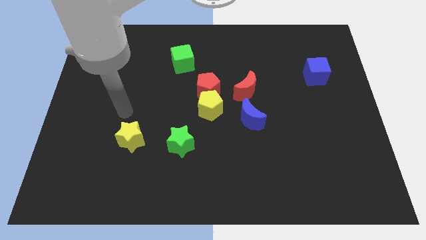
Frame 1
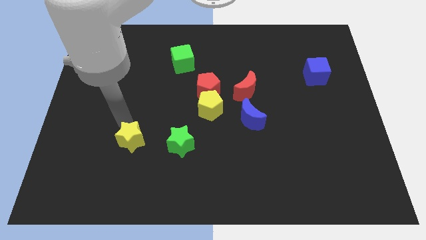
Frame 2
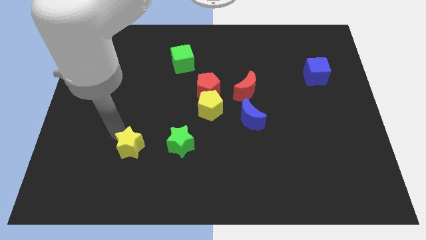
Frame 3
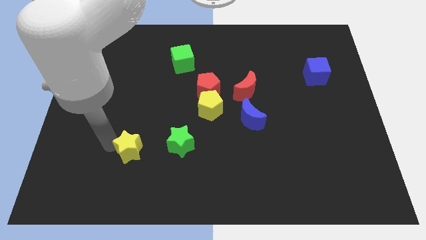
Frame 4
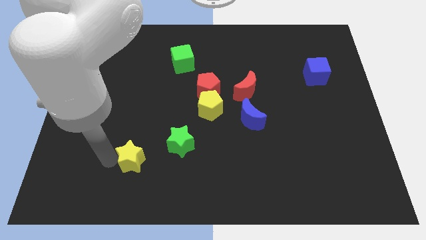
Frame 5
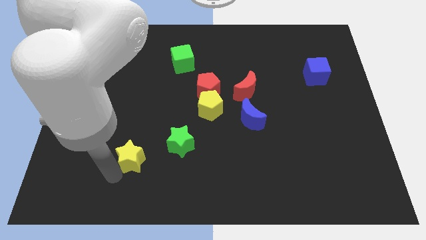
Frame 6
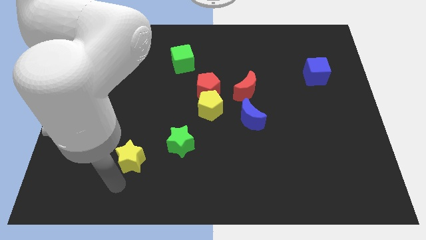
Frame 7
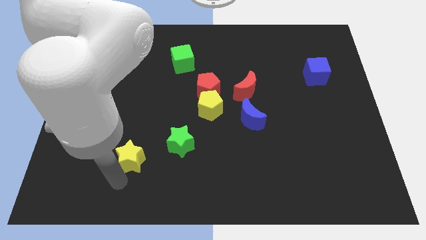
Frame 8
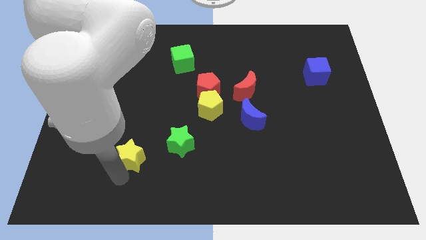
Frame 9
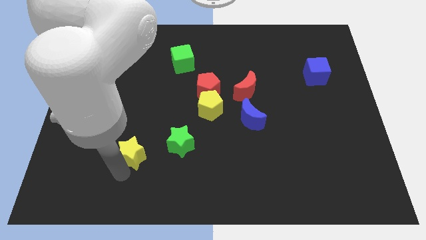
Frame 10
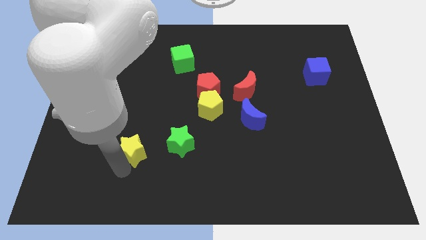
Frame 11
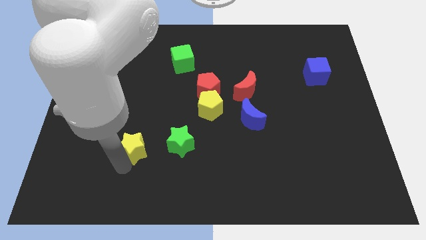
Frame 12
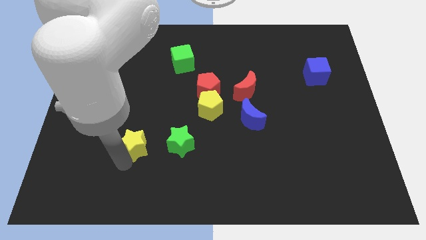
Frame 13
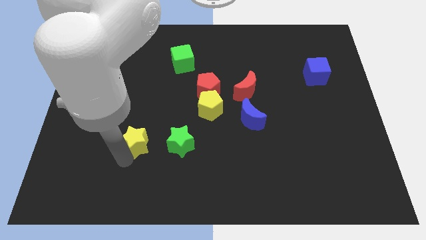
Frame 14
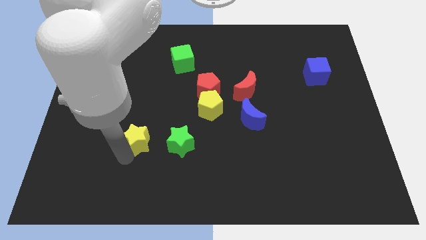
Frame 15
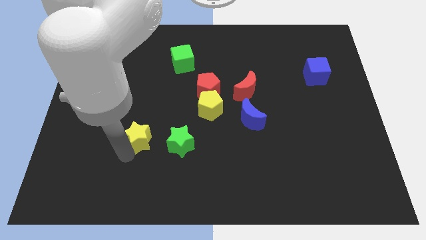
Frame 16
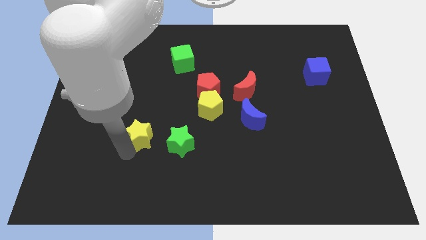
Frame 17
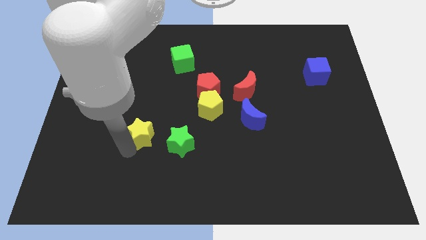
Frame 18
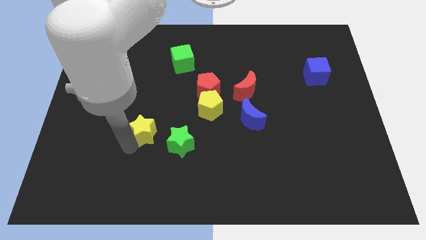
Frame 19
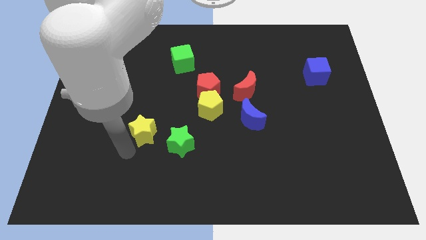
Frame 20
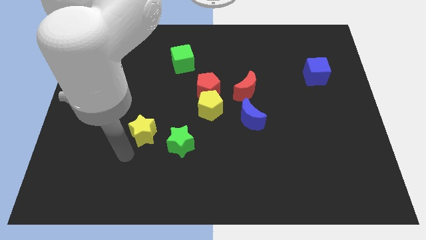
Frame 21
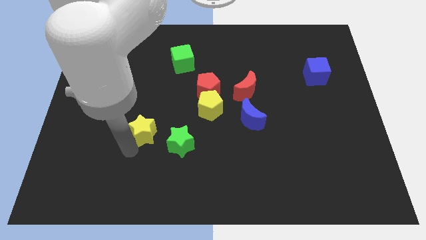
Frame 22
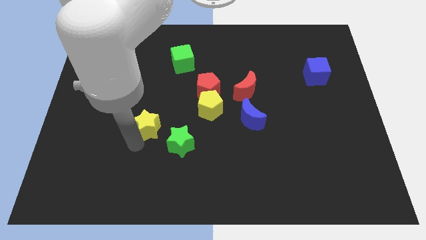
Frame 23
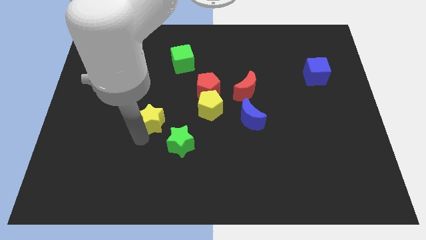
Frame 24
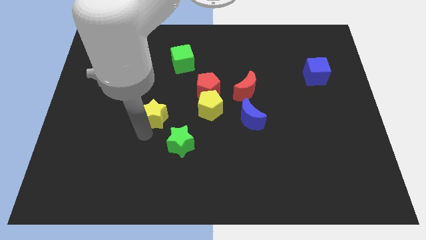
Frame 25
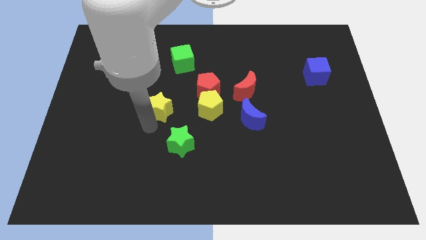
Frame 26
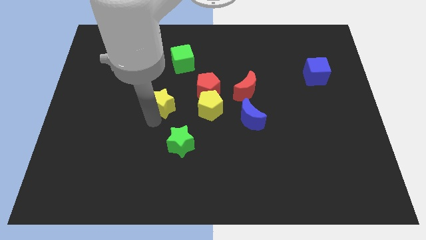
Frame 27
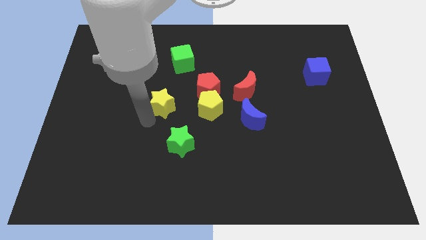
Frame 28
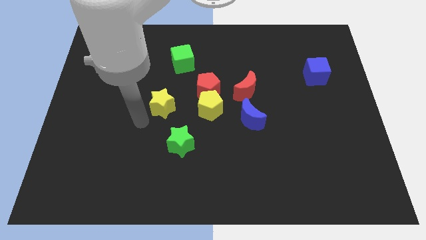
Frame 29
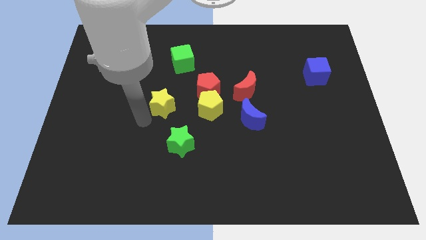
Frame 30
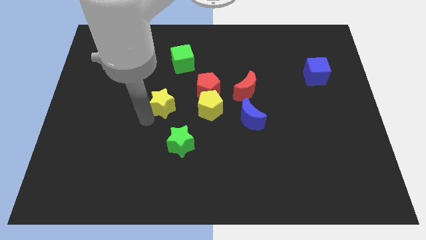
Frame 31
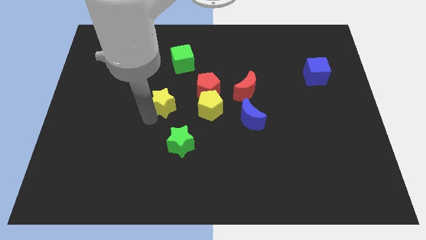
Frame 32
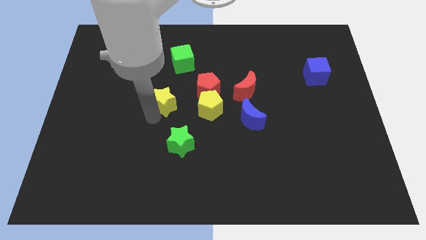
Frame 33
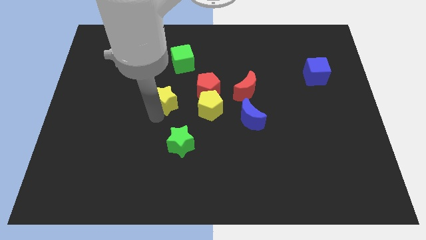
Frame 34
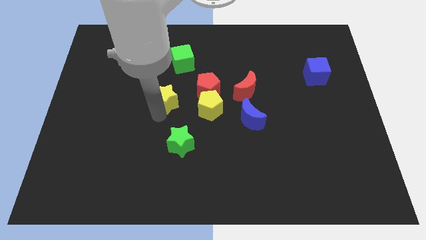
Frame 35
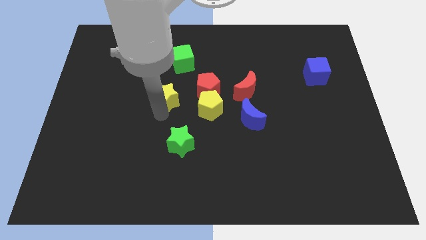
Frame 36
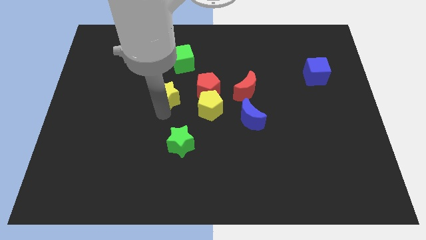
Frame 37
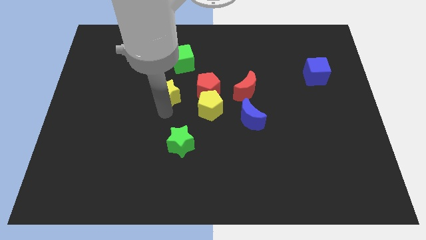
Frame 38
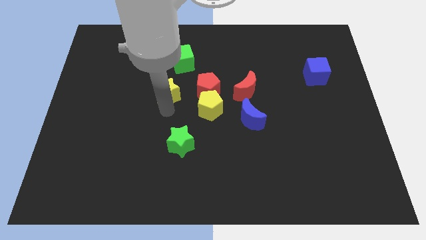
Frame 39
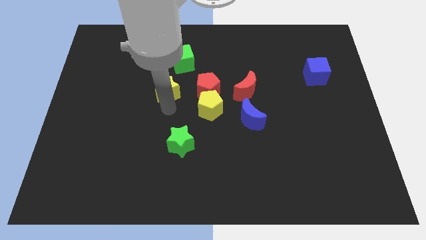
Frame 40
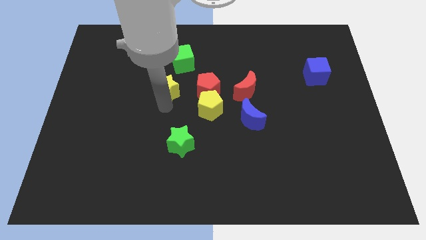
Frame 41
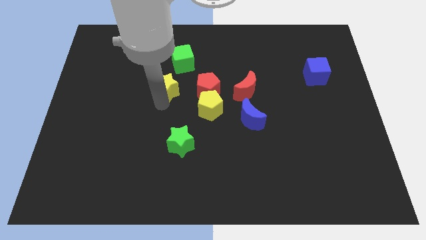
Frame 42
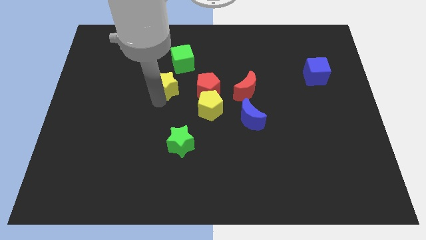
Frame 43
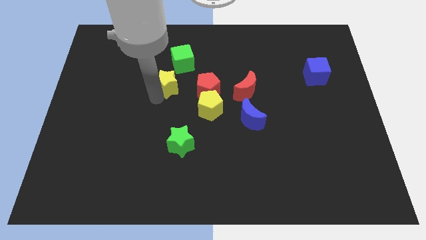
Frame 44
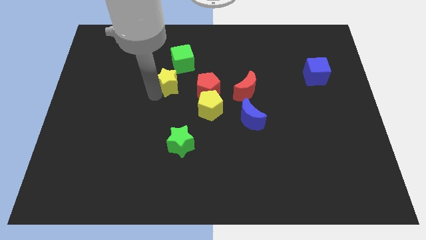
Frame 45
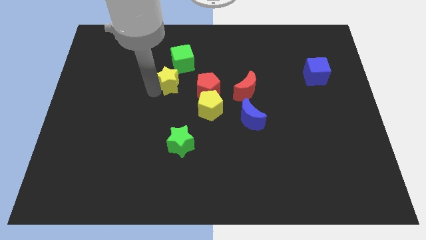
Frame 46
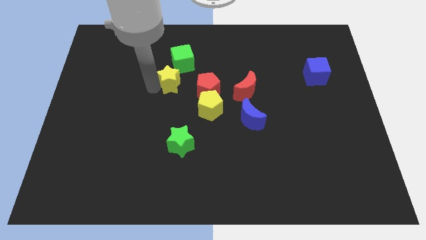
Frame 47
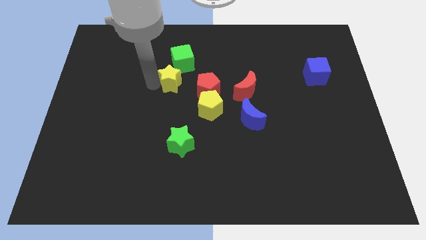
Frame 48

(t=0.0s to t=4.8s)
push the yellow star to the top left of the red pentagon

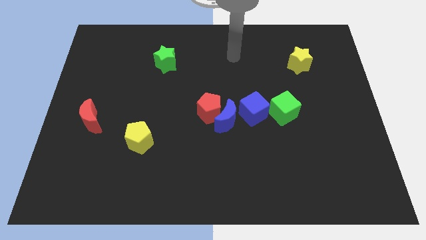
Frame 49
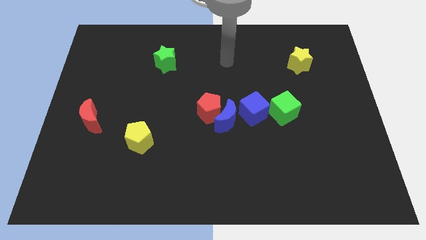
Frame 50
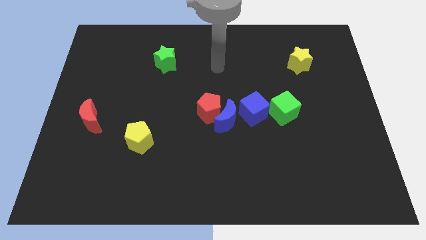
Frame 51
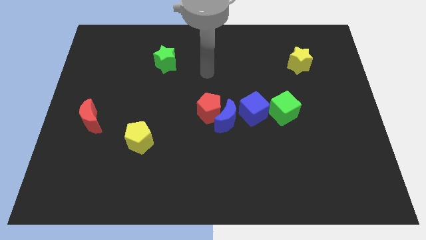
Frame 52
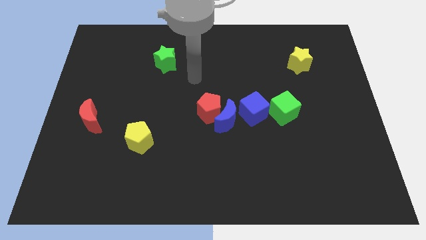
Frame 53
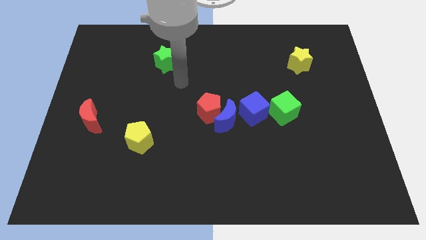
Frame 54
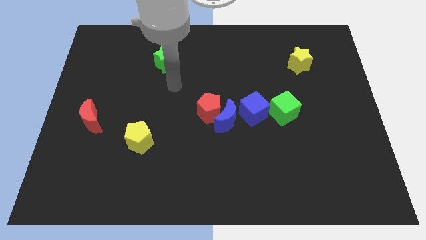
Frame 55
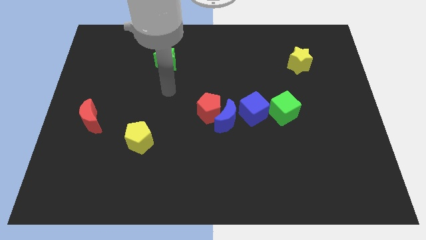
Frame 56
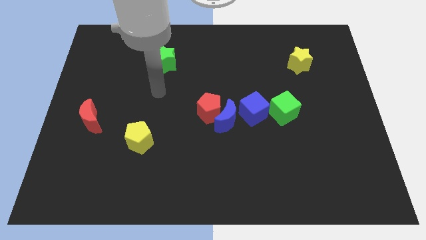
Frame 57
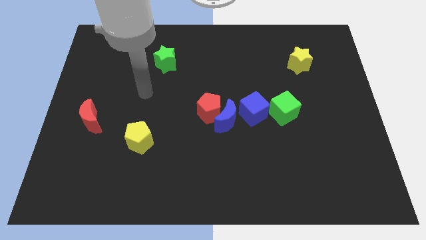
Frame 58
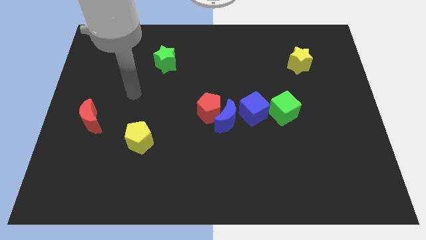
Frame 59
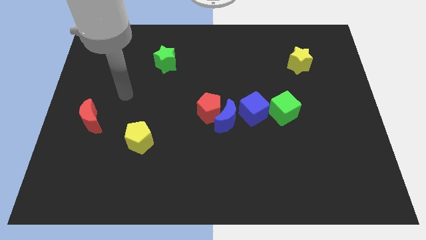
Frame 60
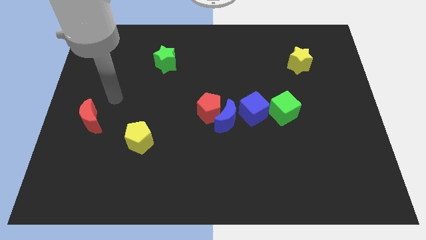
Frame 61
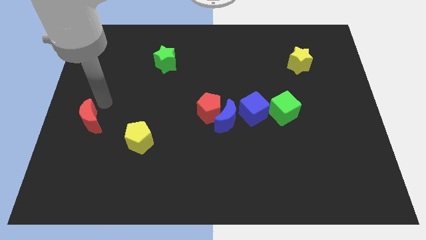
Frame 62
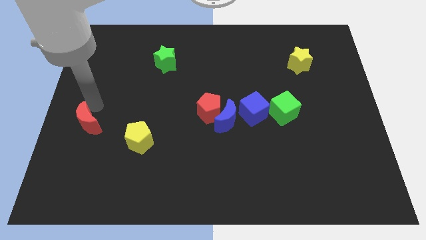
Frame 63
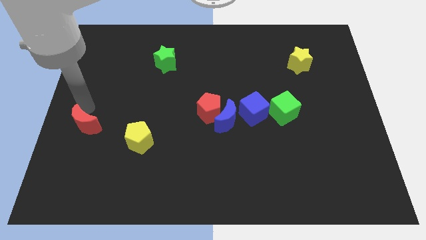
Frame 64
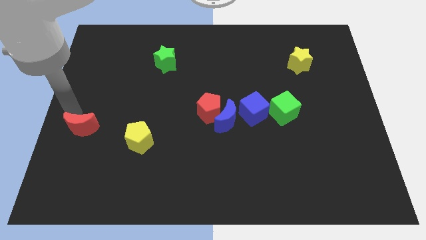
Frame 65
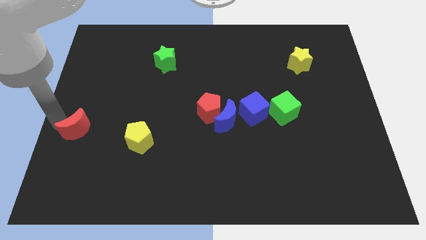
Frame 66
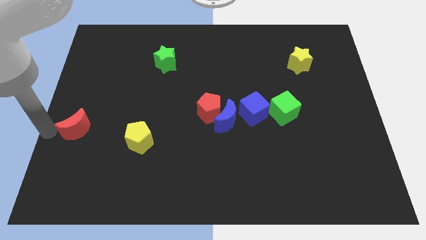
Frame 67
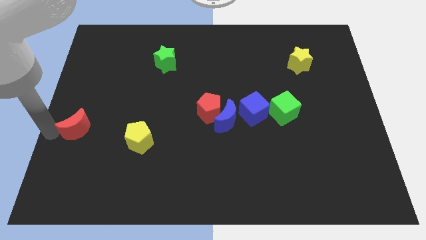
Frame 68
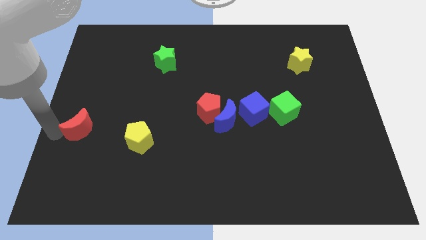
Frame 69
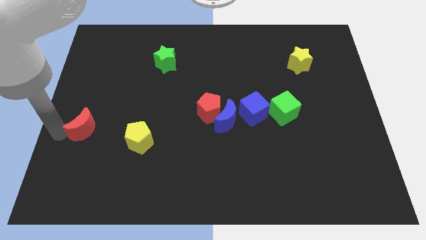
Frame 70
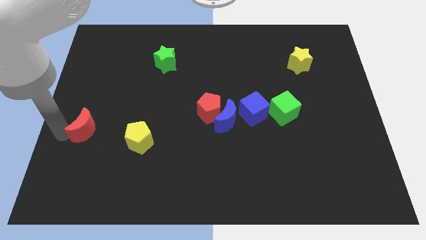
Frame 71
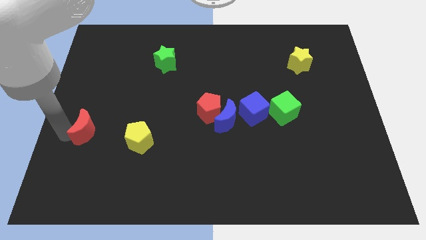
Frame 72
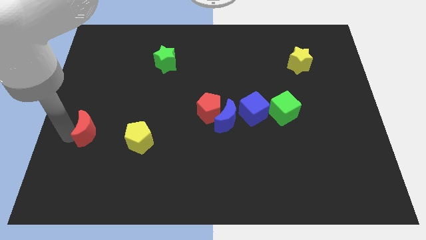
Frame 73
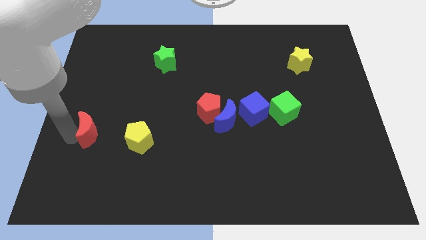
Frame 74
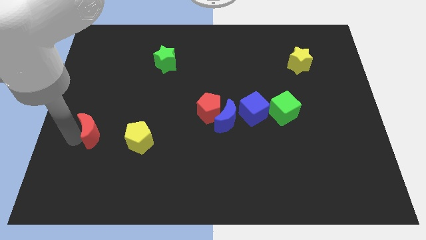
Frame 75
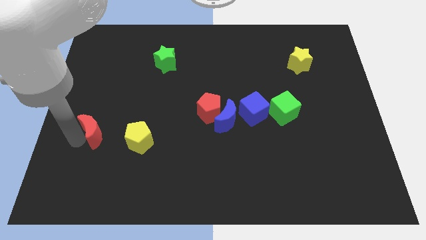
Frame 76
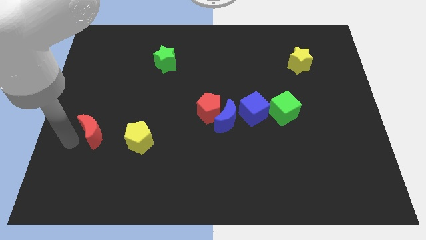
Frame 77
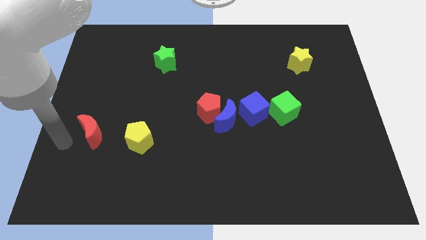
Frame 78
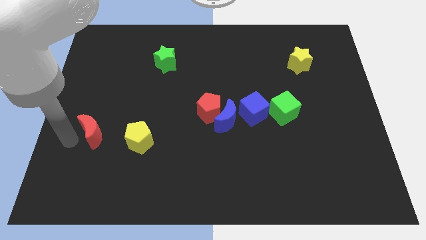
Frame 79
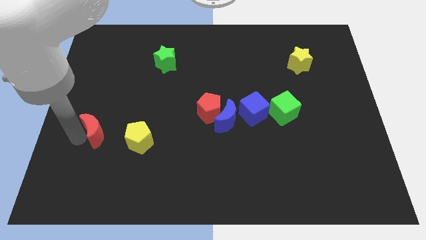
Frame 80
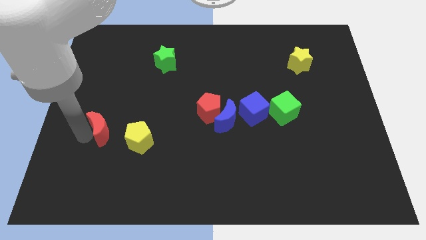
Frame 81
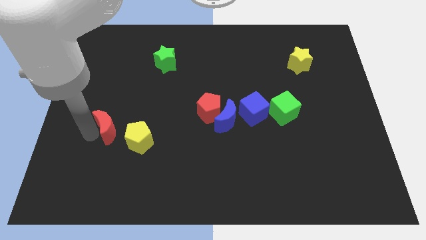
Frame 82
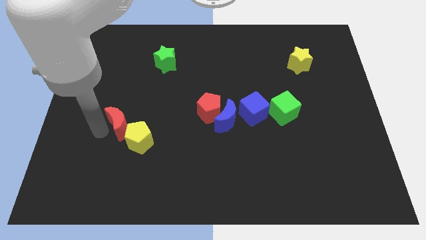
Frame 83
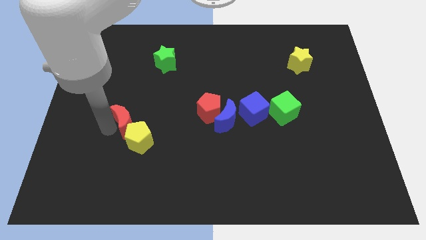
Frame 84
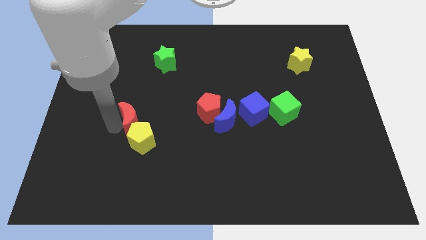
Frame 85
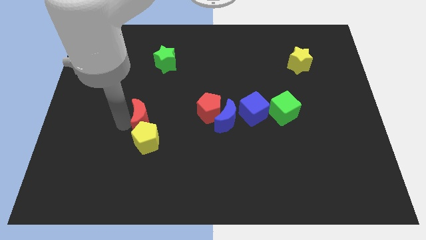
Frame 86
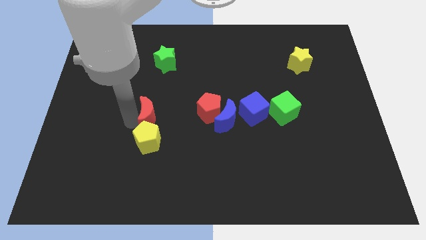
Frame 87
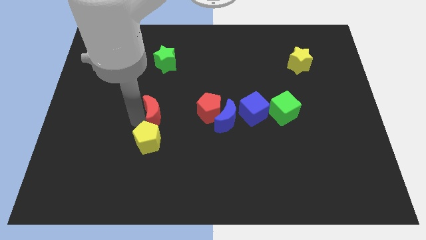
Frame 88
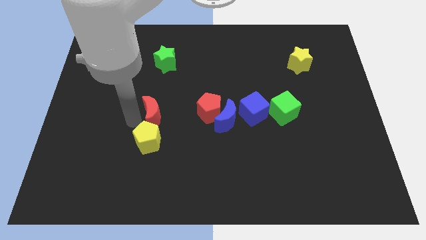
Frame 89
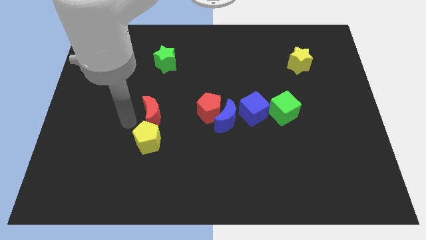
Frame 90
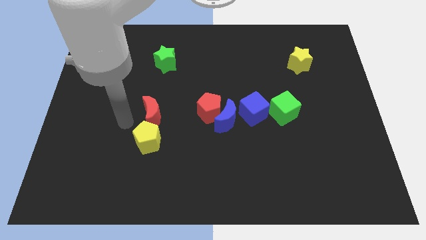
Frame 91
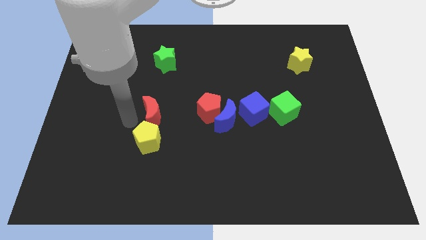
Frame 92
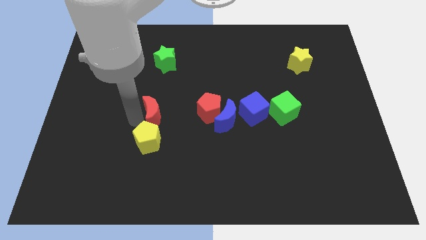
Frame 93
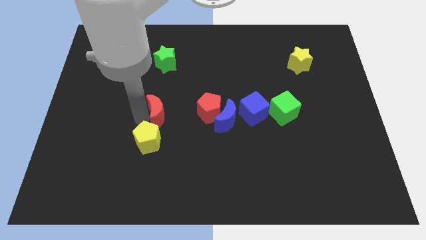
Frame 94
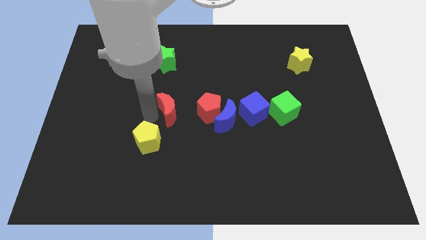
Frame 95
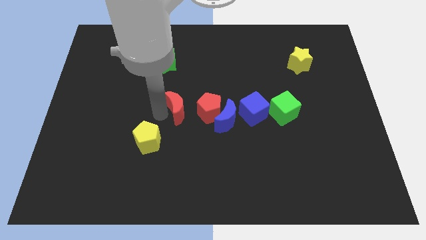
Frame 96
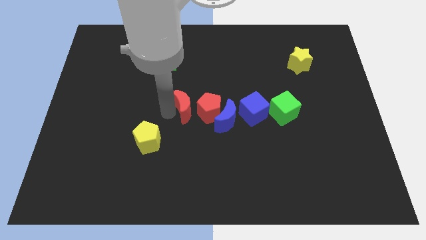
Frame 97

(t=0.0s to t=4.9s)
slide the red moon diagonally up and to the left of the blue moon
